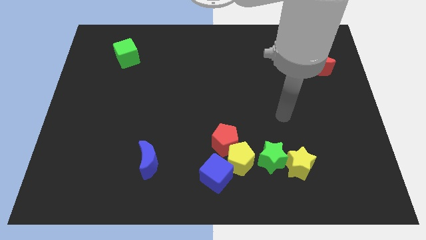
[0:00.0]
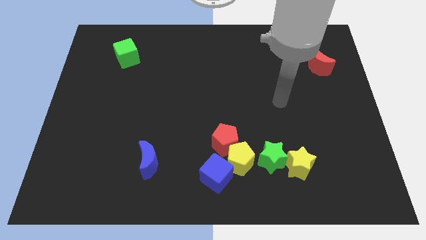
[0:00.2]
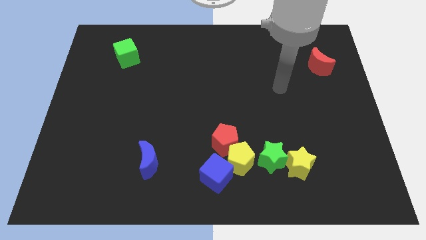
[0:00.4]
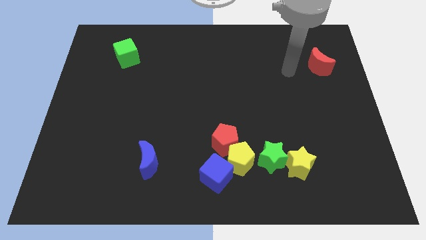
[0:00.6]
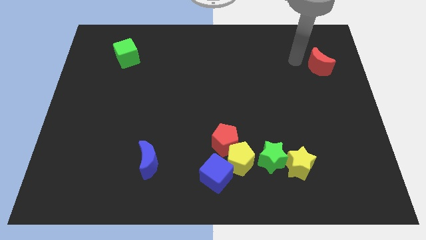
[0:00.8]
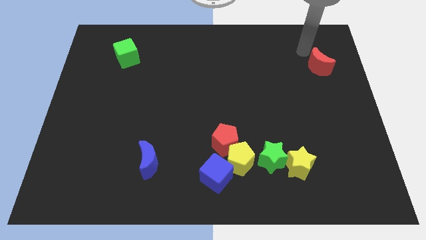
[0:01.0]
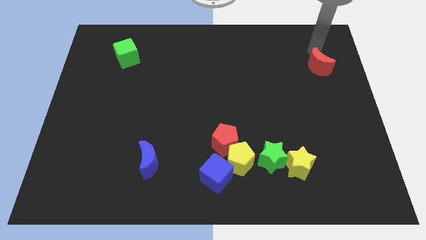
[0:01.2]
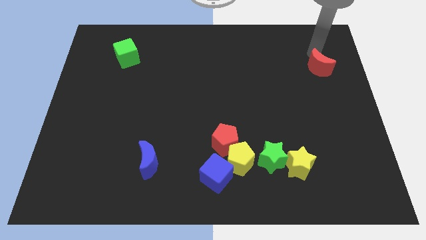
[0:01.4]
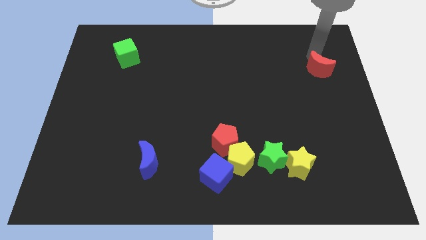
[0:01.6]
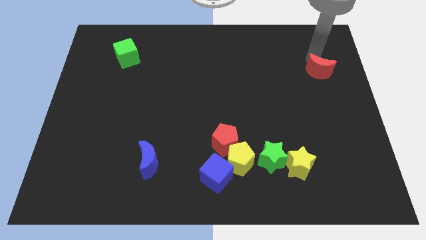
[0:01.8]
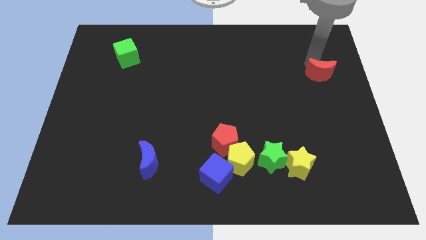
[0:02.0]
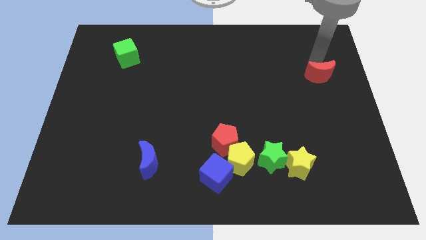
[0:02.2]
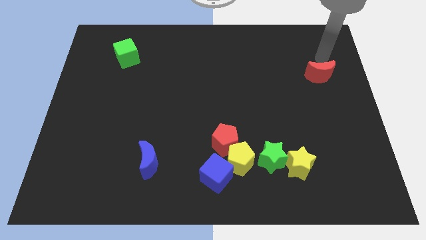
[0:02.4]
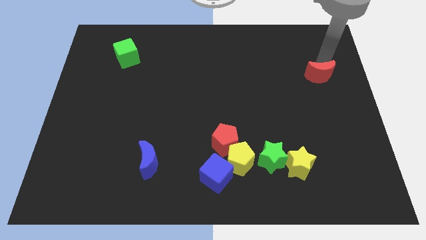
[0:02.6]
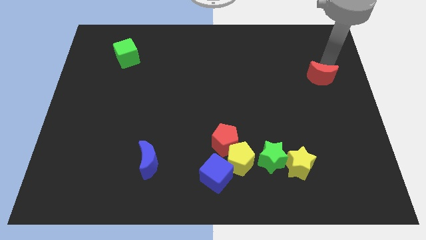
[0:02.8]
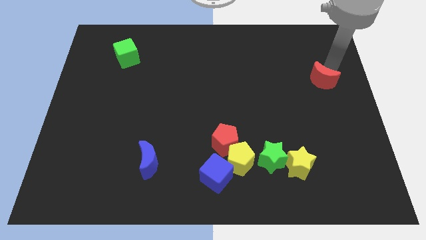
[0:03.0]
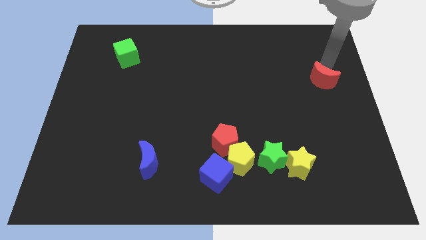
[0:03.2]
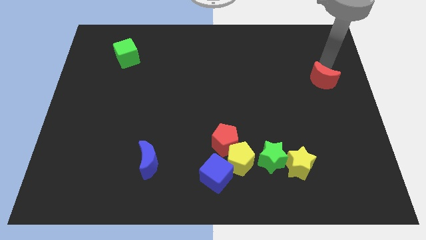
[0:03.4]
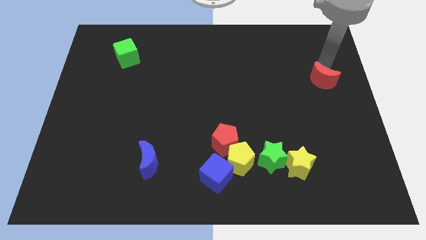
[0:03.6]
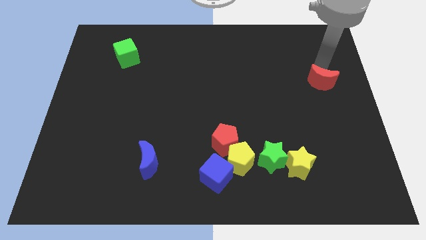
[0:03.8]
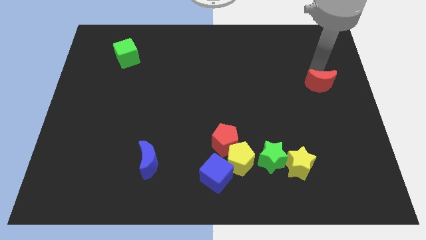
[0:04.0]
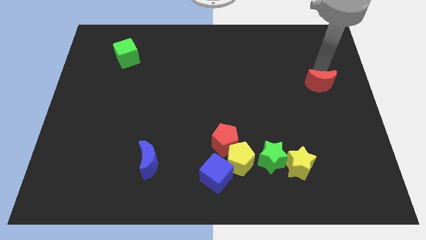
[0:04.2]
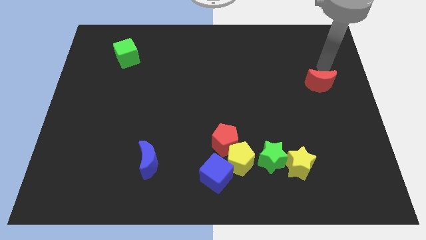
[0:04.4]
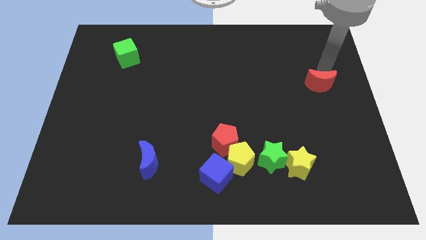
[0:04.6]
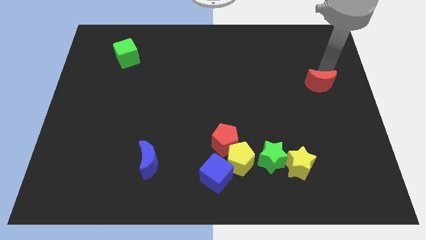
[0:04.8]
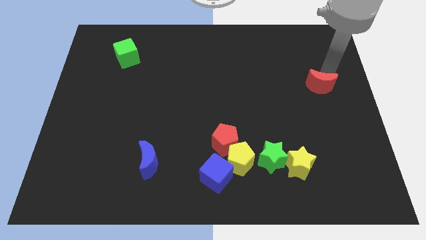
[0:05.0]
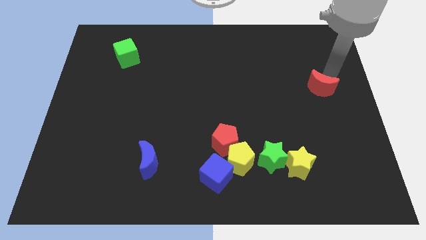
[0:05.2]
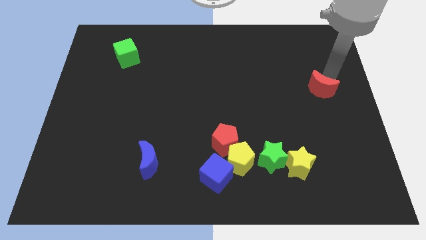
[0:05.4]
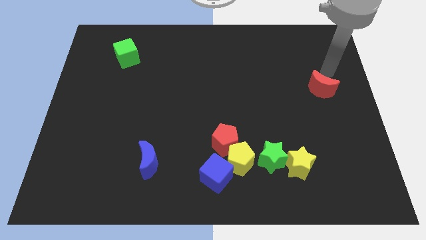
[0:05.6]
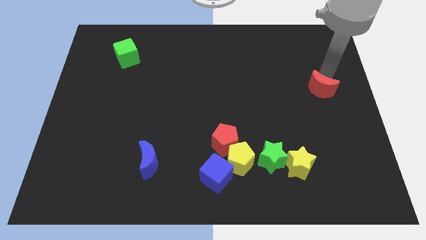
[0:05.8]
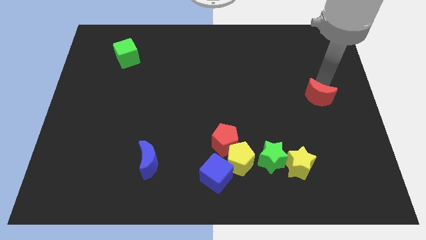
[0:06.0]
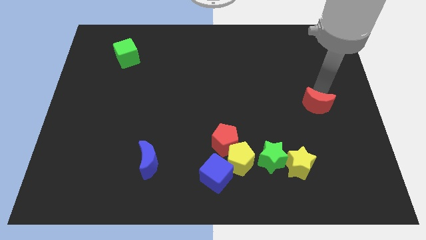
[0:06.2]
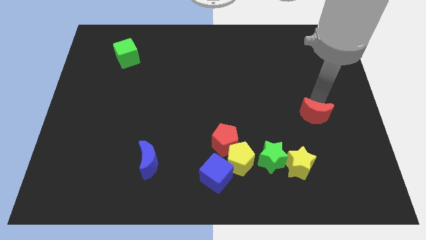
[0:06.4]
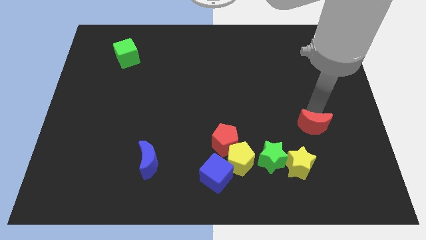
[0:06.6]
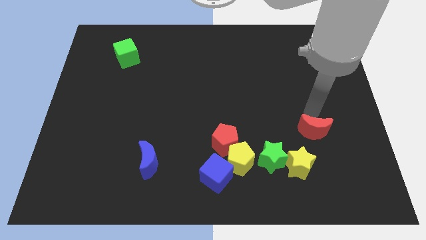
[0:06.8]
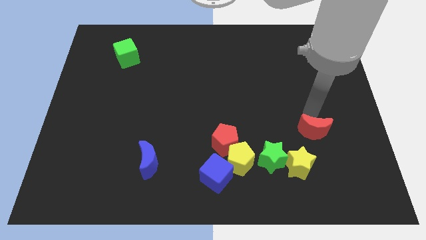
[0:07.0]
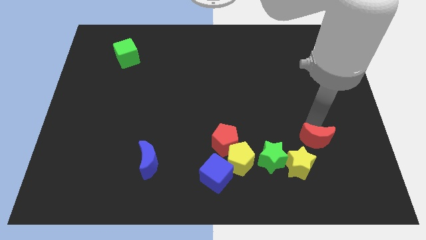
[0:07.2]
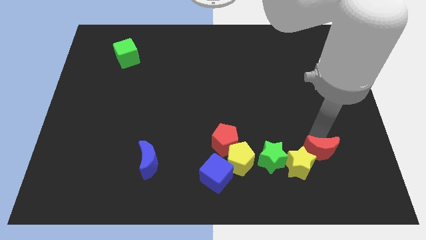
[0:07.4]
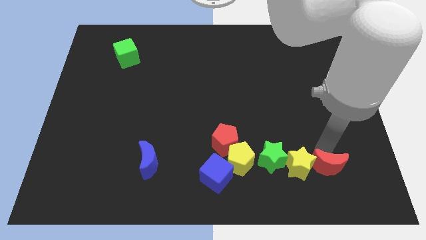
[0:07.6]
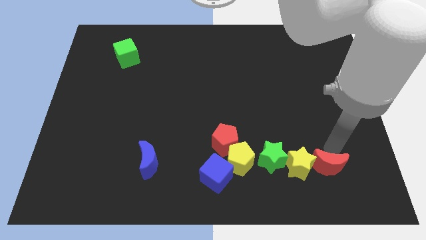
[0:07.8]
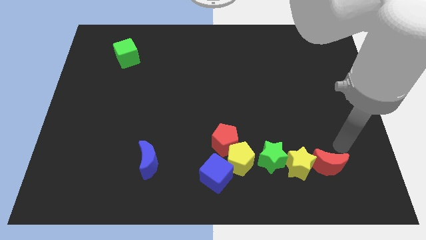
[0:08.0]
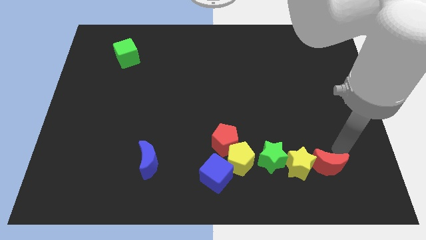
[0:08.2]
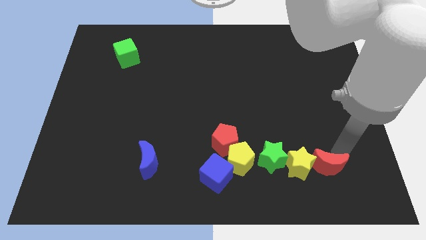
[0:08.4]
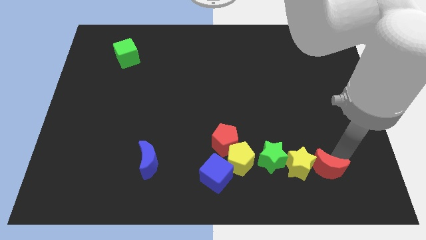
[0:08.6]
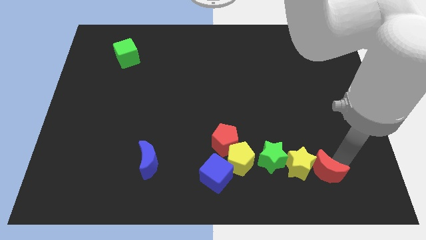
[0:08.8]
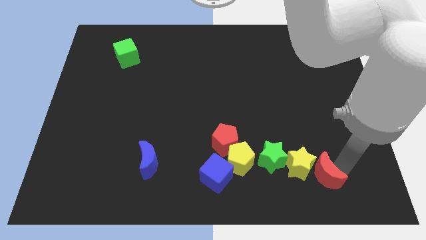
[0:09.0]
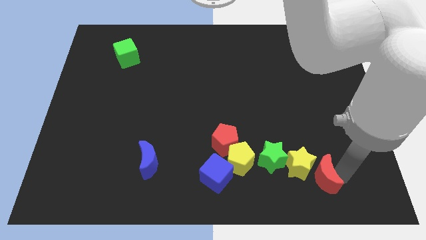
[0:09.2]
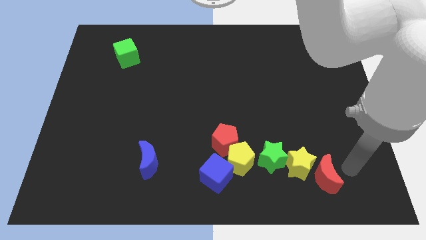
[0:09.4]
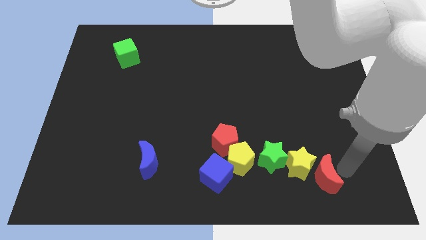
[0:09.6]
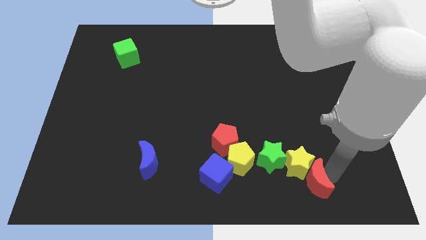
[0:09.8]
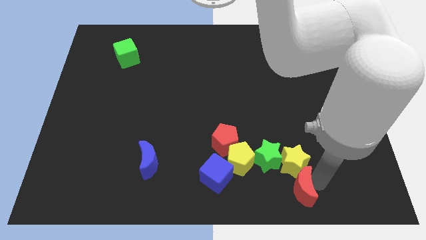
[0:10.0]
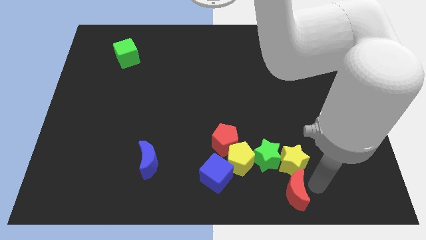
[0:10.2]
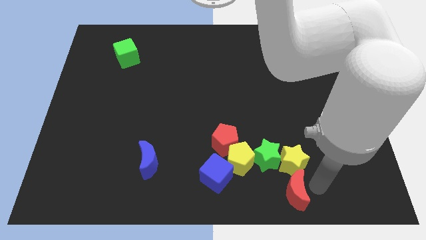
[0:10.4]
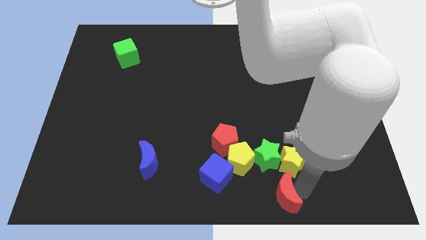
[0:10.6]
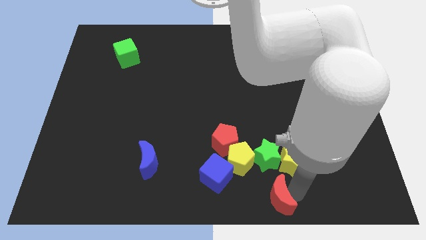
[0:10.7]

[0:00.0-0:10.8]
move the red moon to the bottom
